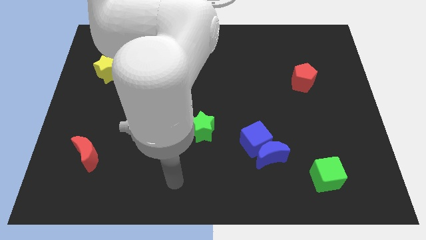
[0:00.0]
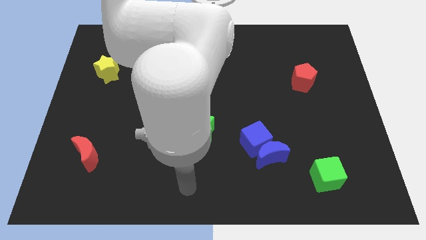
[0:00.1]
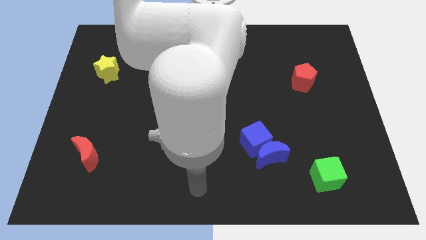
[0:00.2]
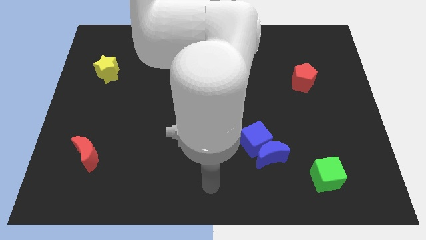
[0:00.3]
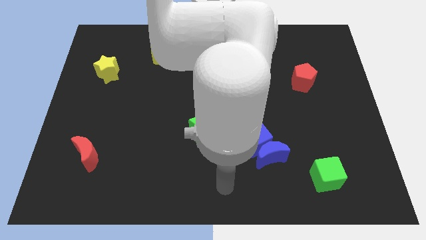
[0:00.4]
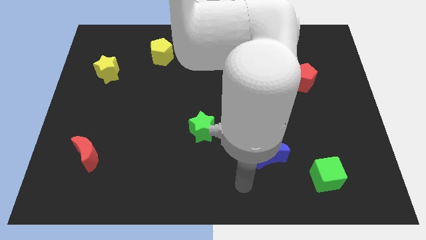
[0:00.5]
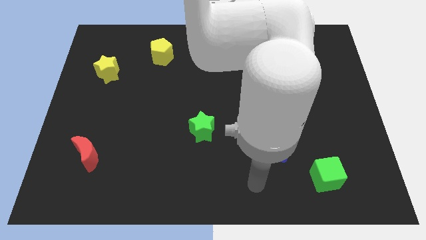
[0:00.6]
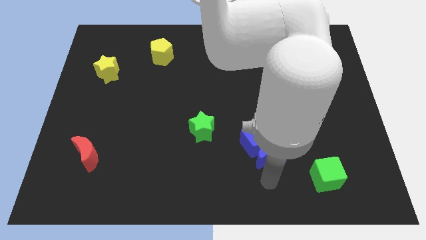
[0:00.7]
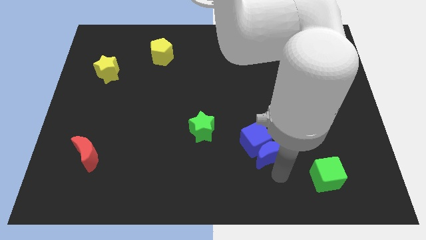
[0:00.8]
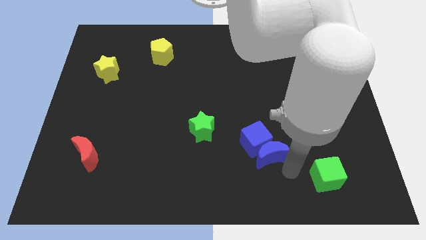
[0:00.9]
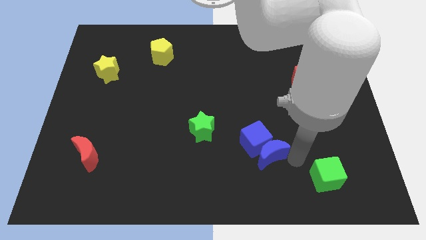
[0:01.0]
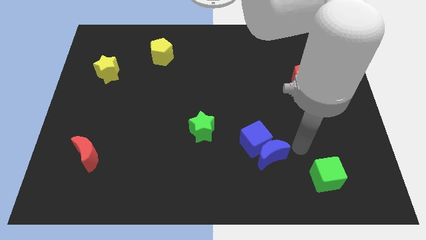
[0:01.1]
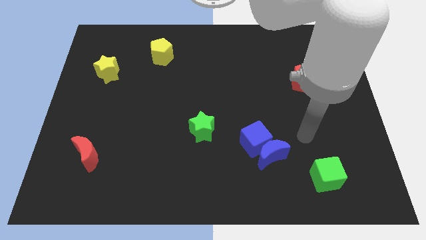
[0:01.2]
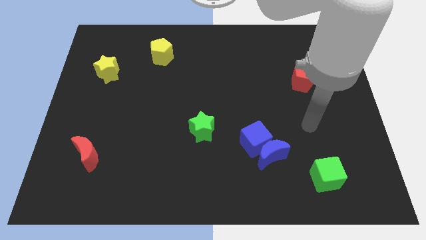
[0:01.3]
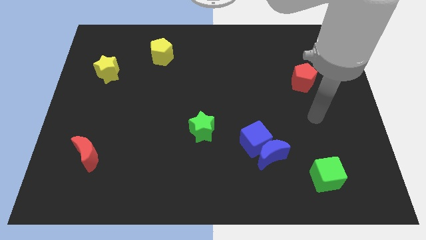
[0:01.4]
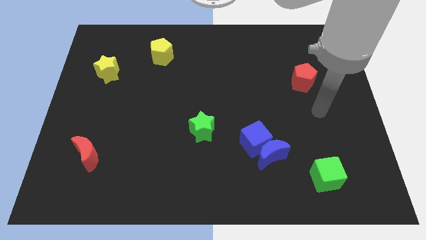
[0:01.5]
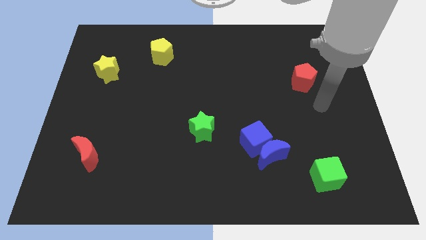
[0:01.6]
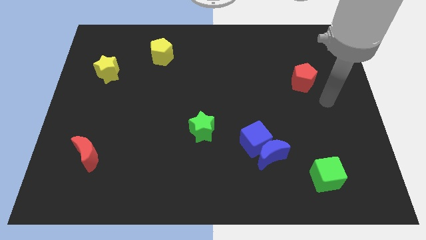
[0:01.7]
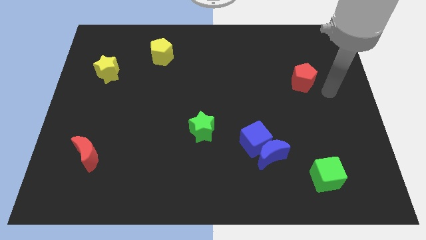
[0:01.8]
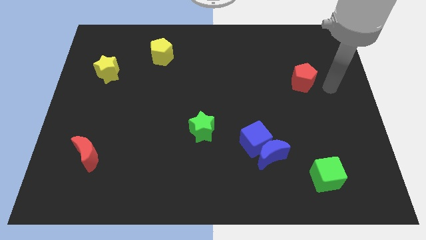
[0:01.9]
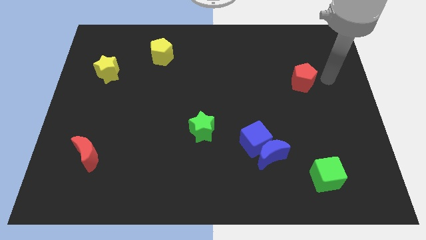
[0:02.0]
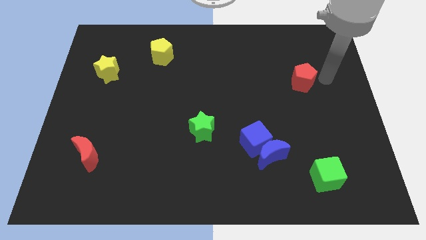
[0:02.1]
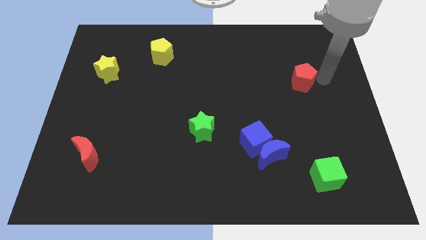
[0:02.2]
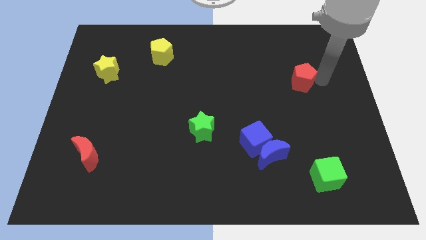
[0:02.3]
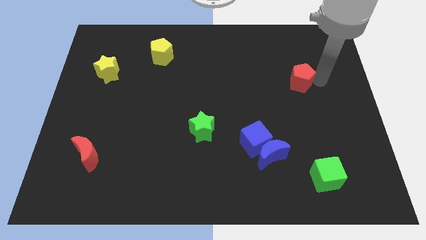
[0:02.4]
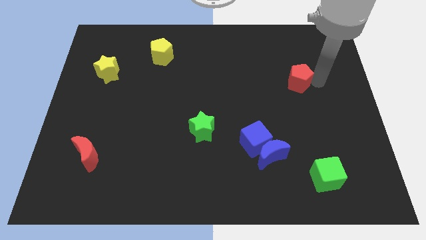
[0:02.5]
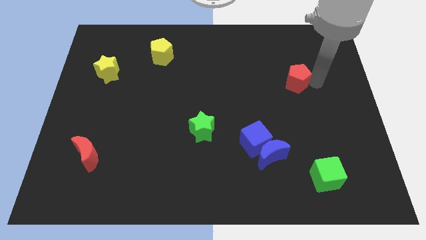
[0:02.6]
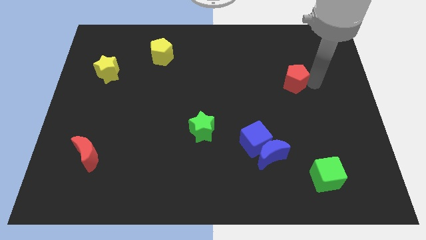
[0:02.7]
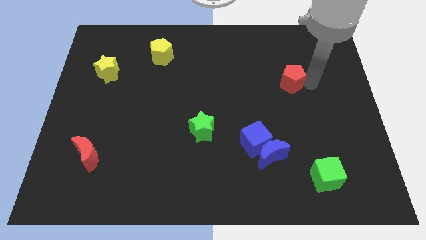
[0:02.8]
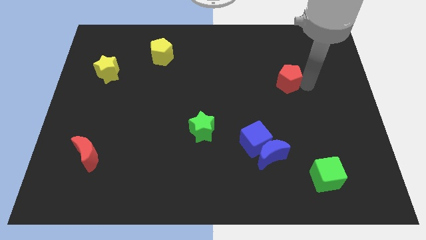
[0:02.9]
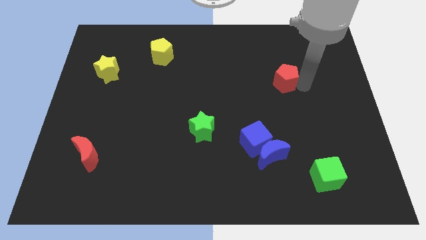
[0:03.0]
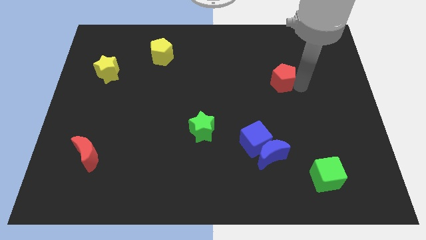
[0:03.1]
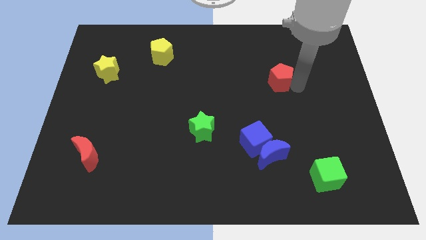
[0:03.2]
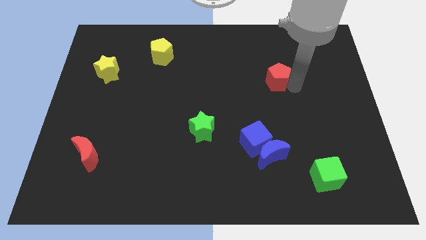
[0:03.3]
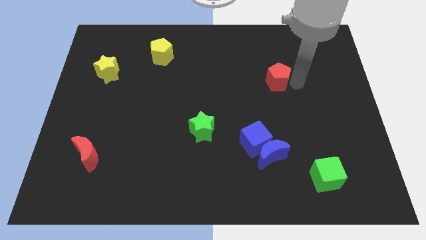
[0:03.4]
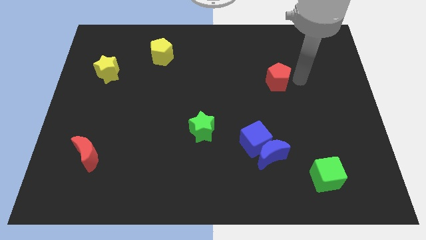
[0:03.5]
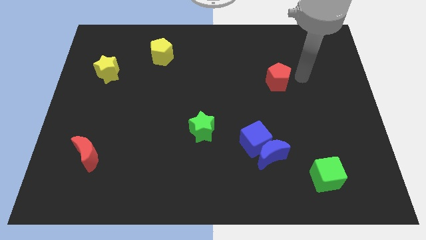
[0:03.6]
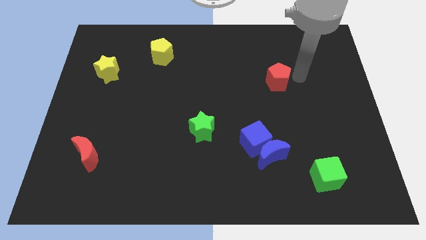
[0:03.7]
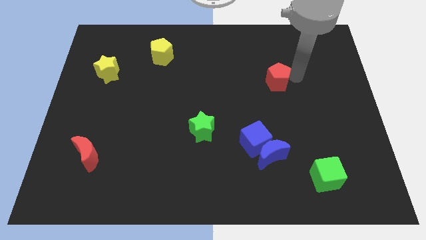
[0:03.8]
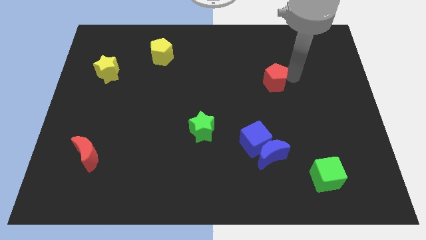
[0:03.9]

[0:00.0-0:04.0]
slightly push the red pentagon left

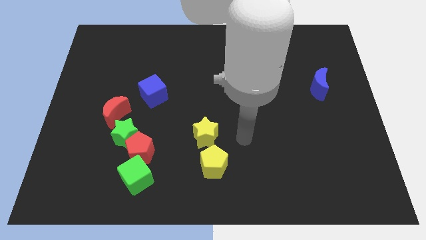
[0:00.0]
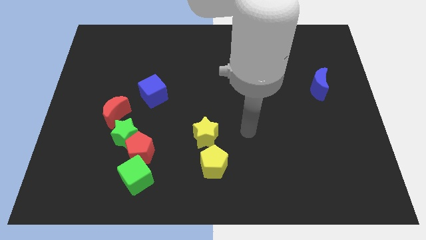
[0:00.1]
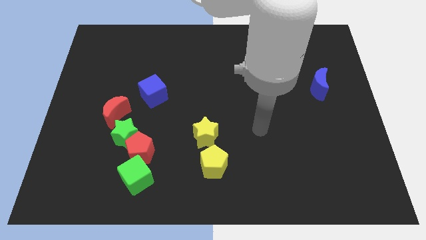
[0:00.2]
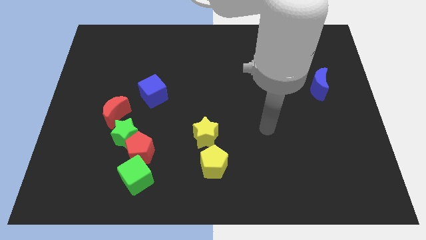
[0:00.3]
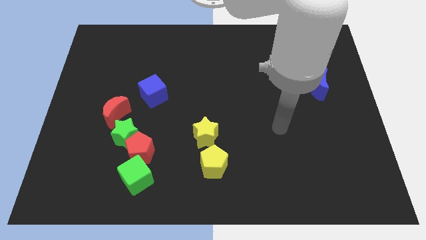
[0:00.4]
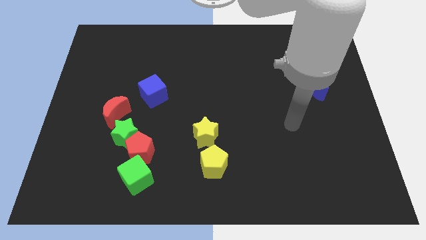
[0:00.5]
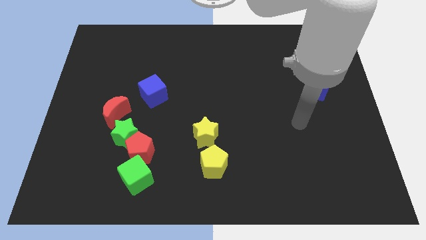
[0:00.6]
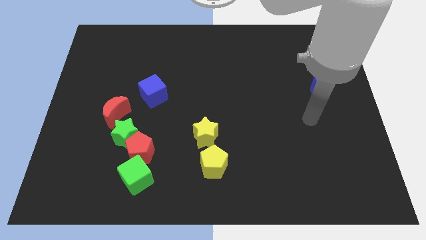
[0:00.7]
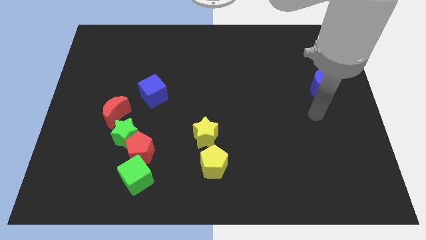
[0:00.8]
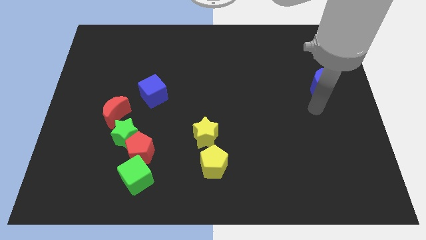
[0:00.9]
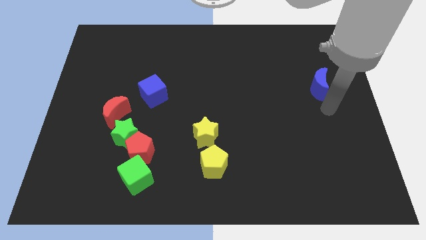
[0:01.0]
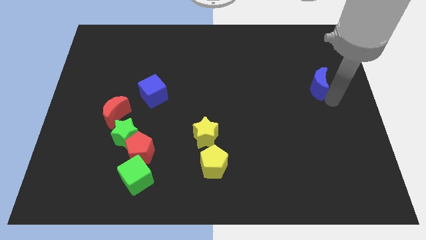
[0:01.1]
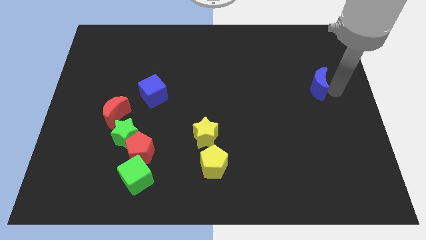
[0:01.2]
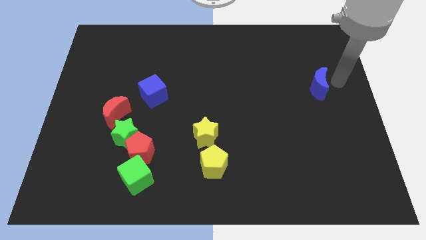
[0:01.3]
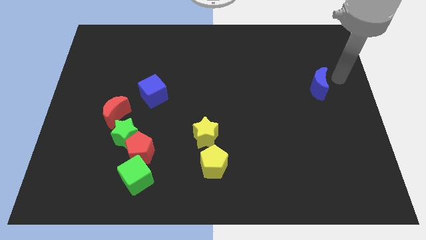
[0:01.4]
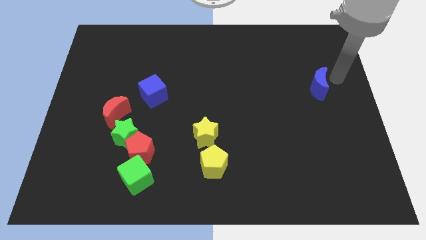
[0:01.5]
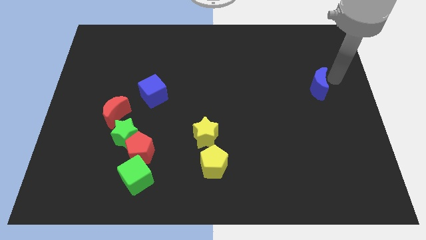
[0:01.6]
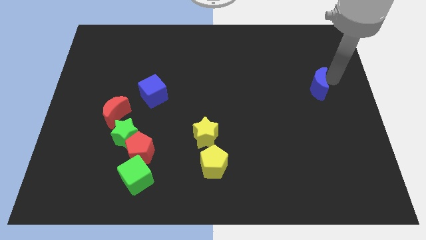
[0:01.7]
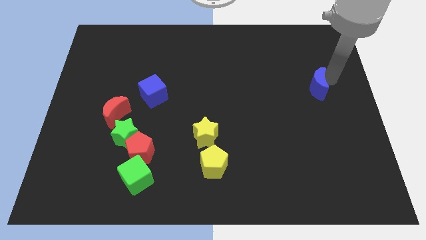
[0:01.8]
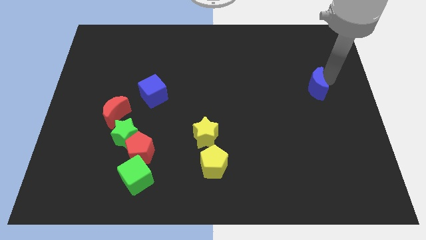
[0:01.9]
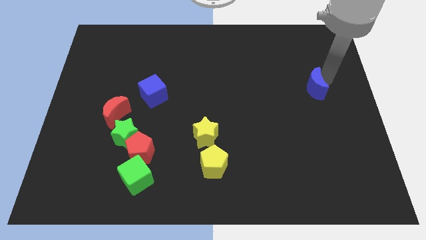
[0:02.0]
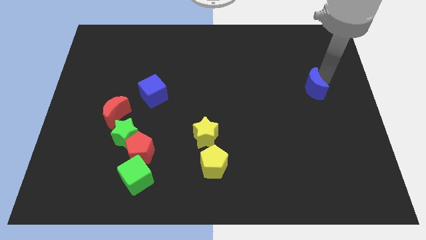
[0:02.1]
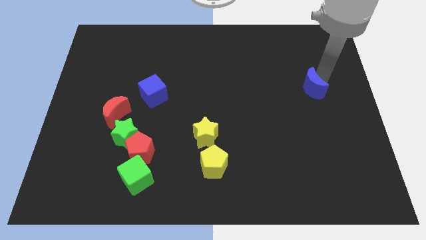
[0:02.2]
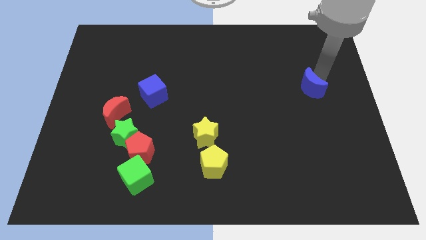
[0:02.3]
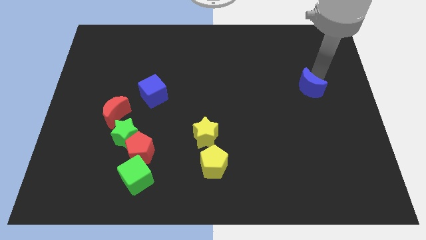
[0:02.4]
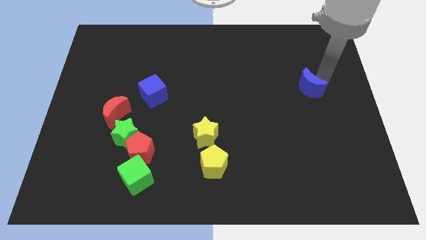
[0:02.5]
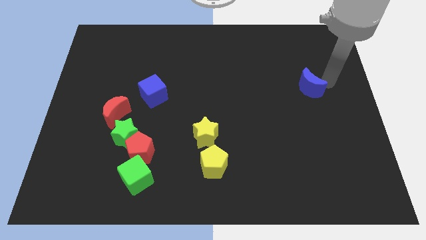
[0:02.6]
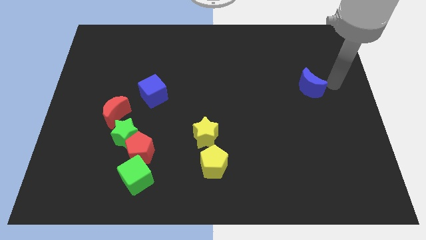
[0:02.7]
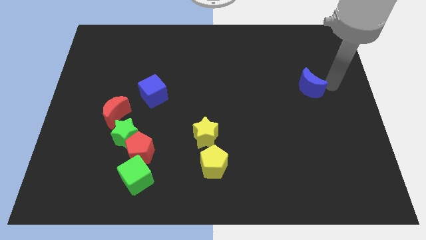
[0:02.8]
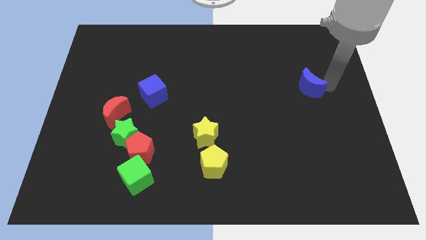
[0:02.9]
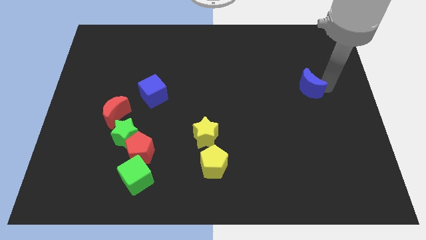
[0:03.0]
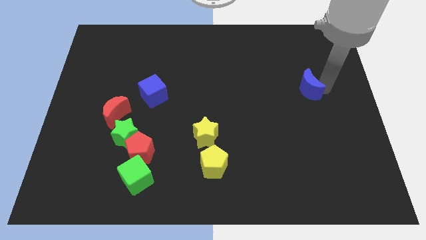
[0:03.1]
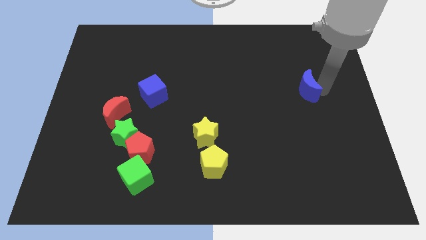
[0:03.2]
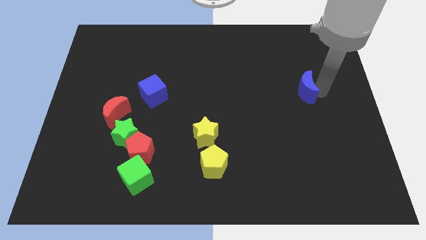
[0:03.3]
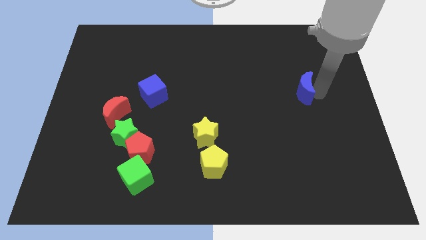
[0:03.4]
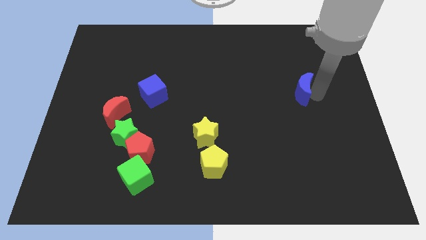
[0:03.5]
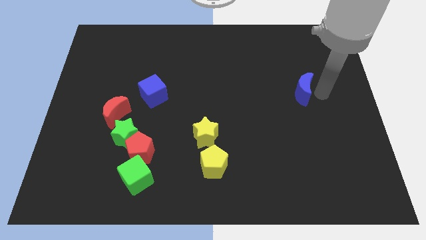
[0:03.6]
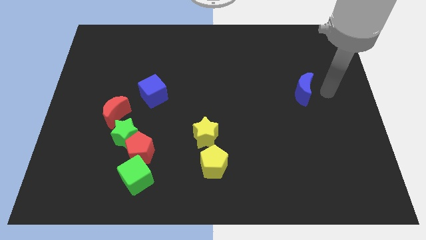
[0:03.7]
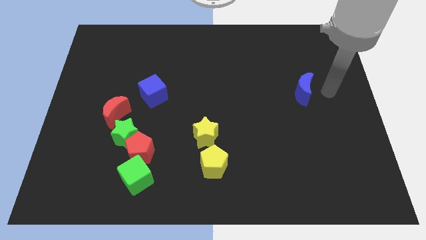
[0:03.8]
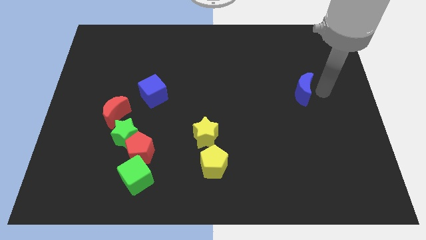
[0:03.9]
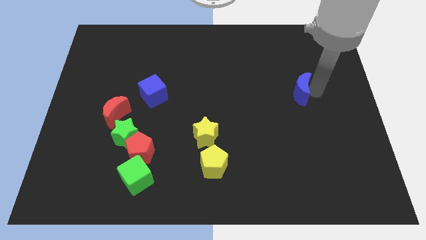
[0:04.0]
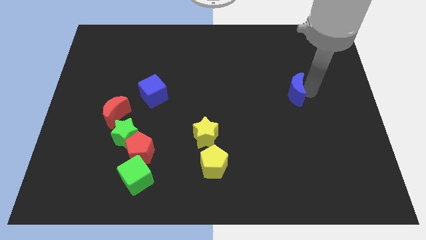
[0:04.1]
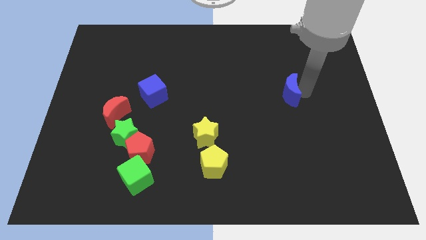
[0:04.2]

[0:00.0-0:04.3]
slide the blue moon to the left slightly

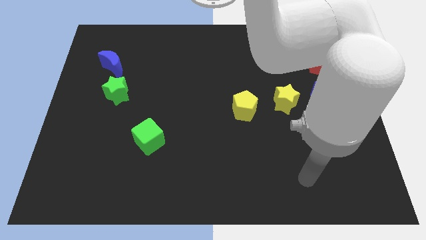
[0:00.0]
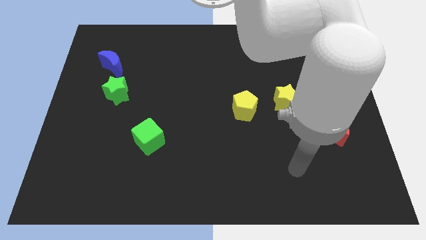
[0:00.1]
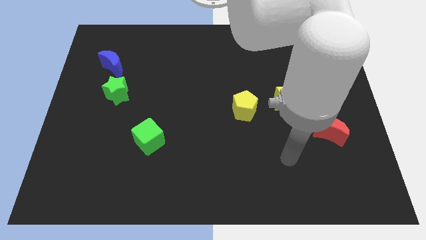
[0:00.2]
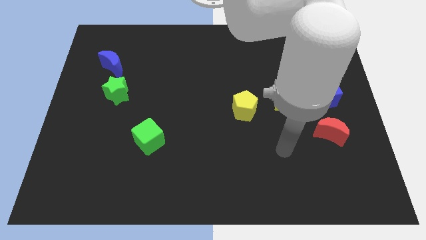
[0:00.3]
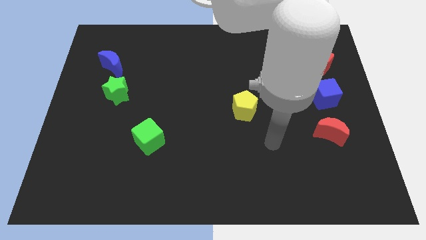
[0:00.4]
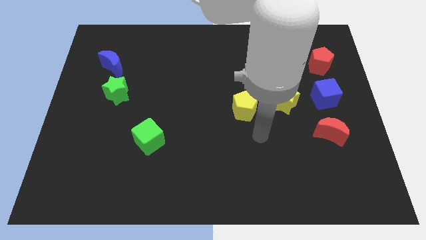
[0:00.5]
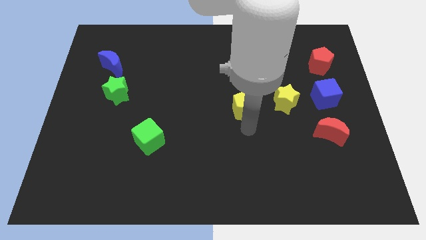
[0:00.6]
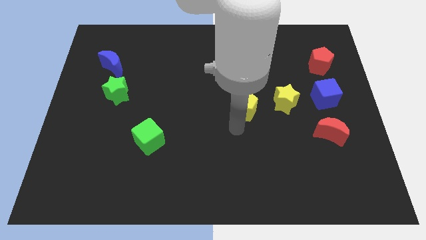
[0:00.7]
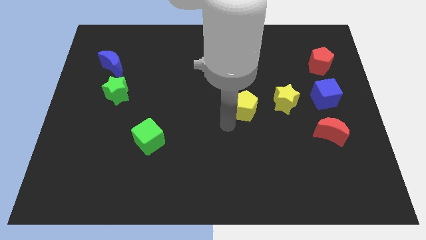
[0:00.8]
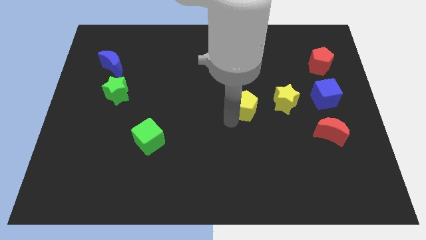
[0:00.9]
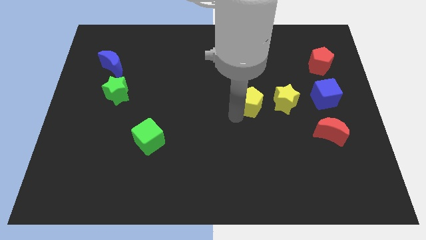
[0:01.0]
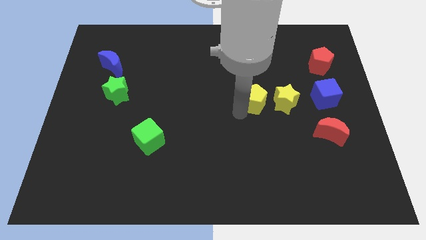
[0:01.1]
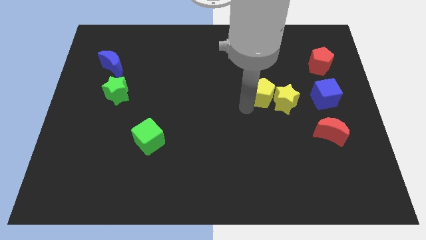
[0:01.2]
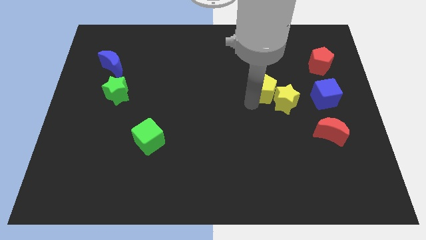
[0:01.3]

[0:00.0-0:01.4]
push the yellow pentagon slightly upwards and to the right diagonally
